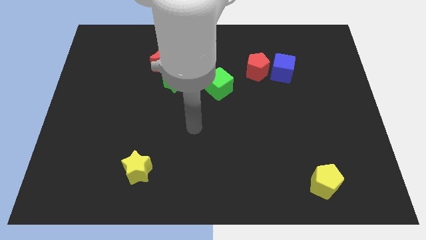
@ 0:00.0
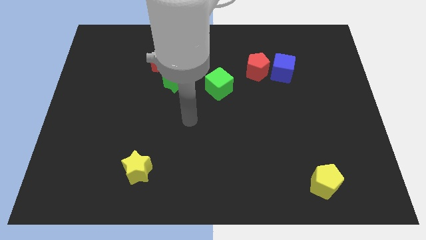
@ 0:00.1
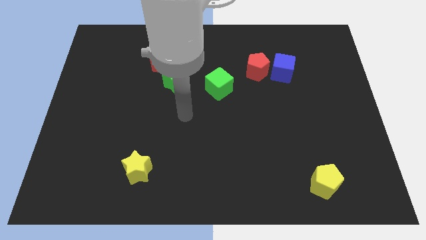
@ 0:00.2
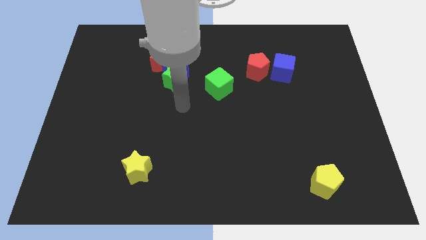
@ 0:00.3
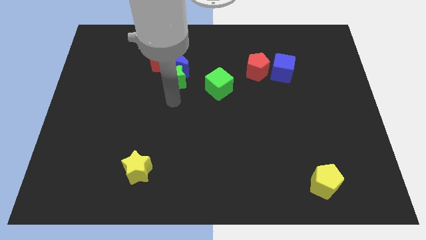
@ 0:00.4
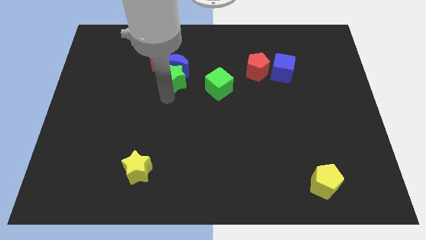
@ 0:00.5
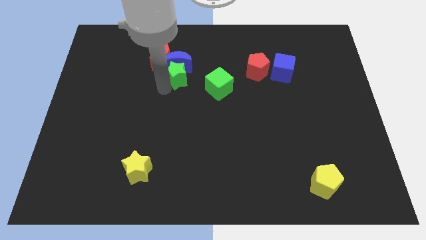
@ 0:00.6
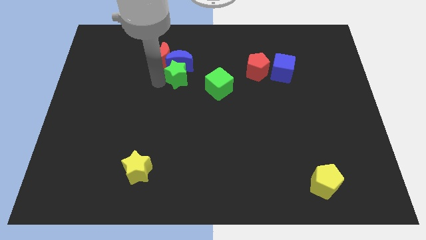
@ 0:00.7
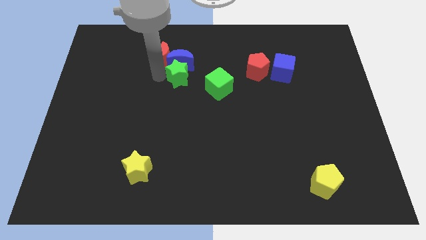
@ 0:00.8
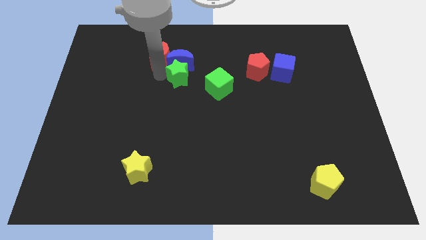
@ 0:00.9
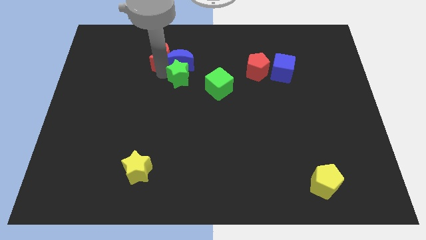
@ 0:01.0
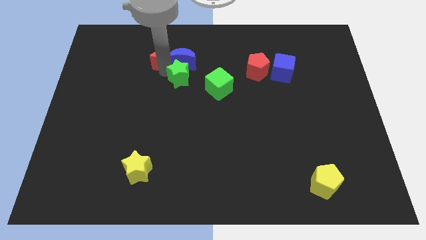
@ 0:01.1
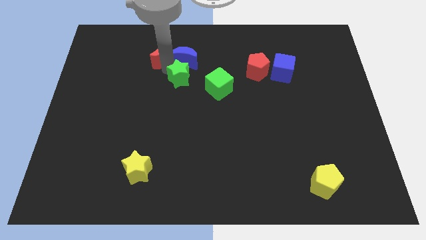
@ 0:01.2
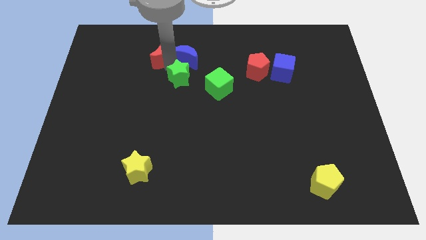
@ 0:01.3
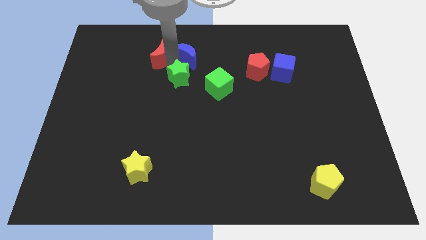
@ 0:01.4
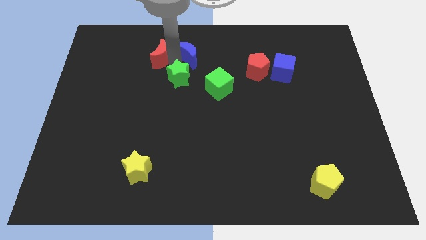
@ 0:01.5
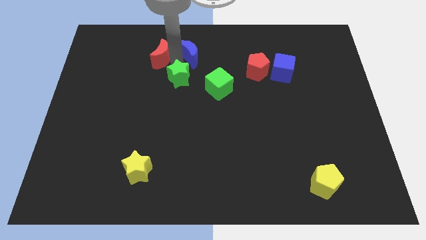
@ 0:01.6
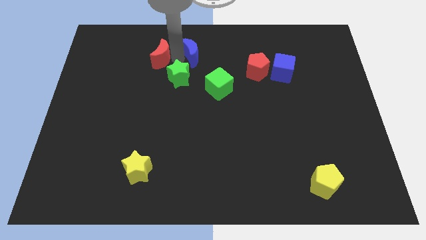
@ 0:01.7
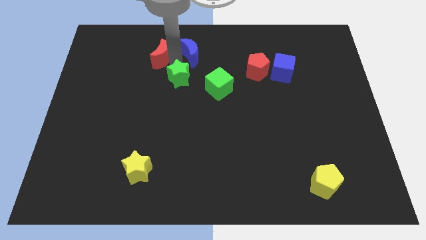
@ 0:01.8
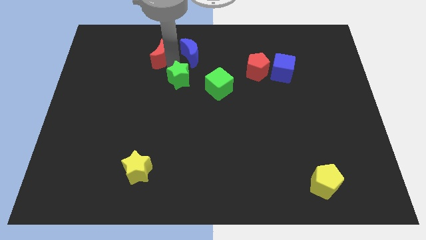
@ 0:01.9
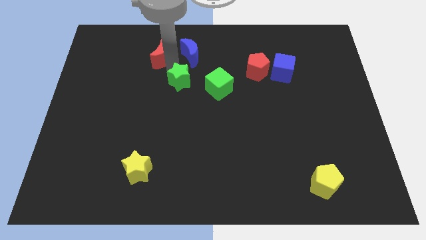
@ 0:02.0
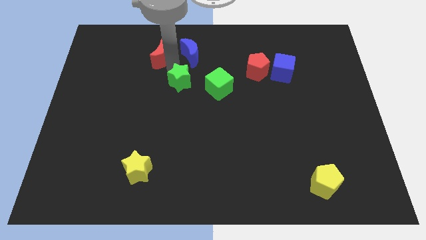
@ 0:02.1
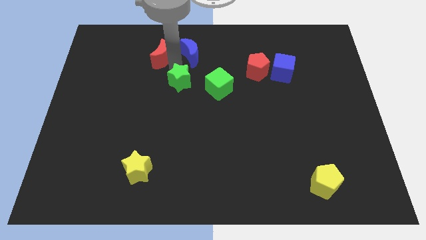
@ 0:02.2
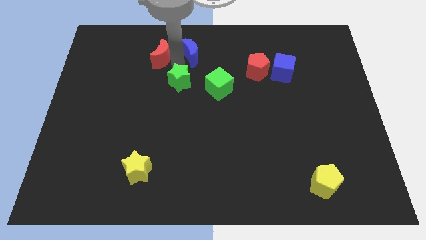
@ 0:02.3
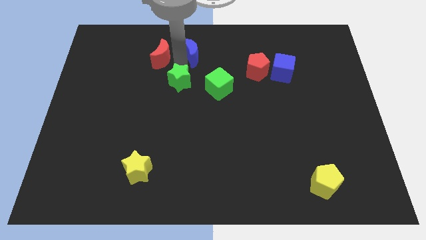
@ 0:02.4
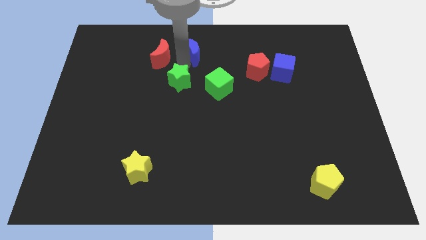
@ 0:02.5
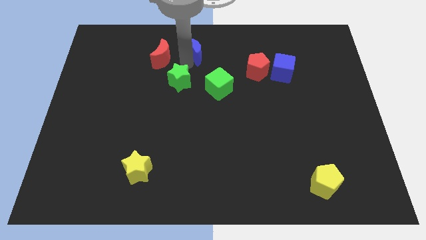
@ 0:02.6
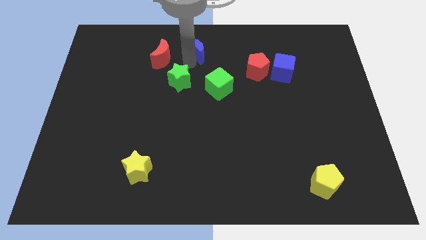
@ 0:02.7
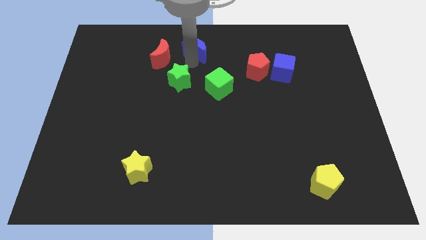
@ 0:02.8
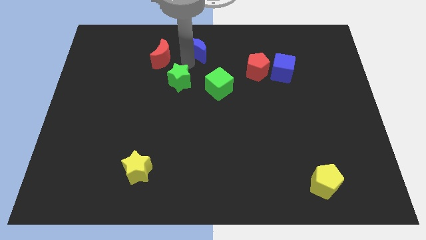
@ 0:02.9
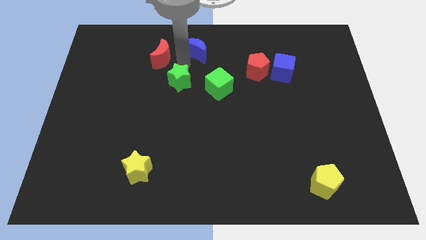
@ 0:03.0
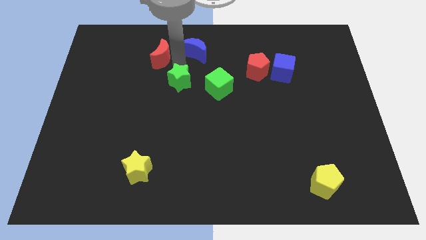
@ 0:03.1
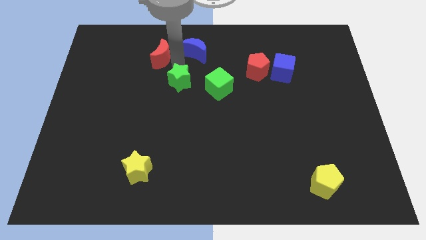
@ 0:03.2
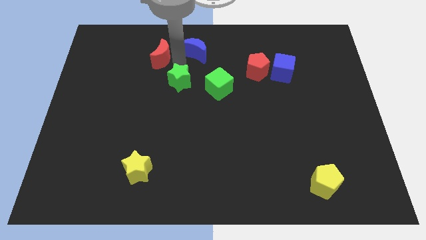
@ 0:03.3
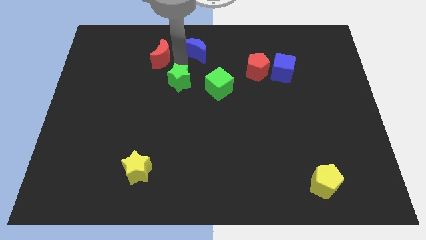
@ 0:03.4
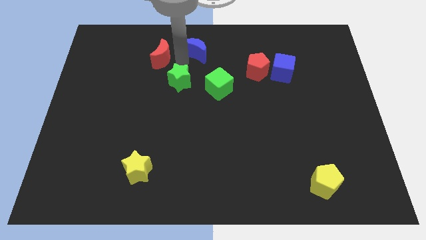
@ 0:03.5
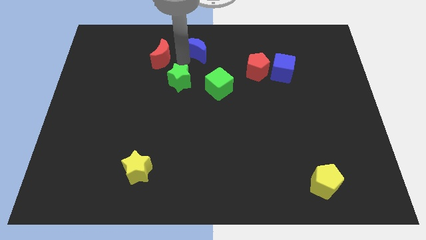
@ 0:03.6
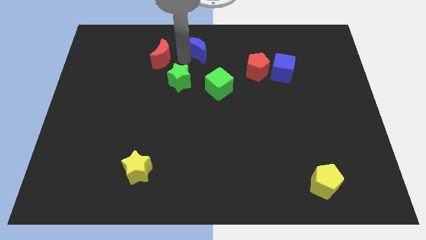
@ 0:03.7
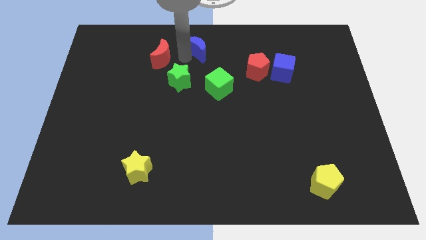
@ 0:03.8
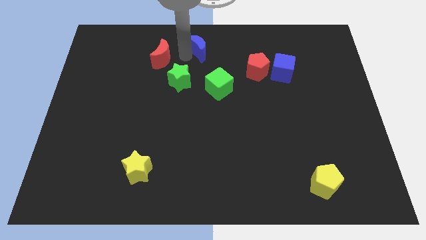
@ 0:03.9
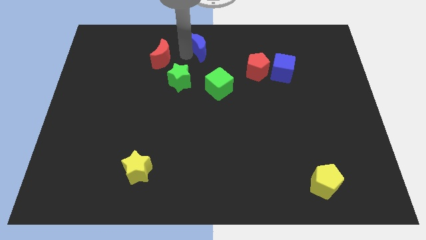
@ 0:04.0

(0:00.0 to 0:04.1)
separate the blue moon from the green star and red moon

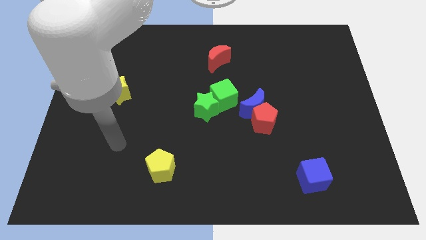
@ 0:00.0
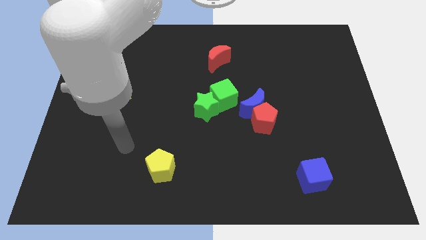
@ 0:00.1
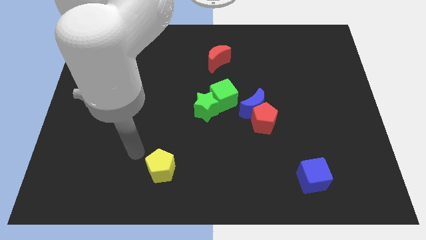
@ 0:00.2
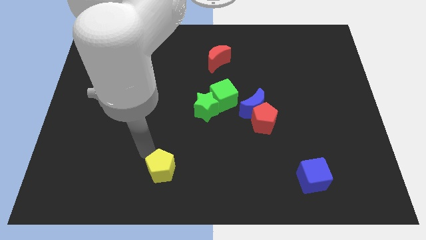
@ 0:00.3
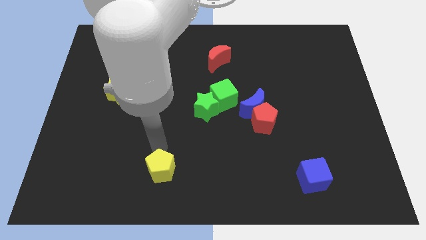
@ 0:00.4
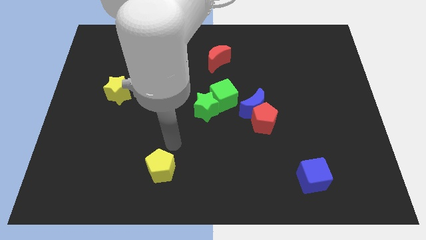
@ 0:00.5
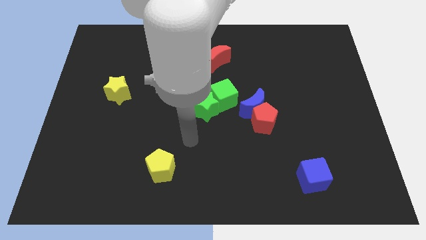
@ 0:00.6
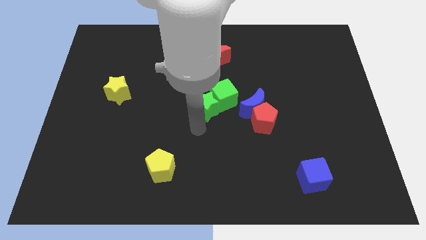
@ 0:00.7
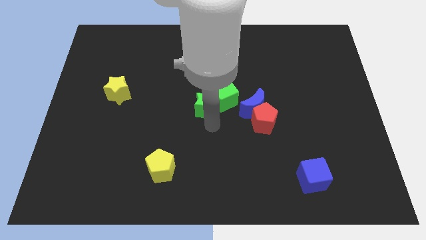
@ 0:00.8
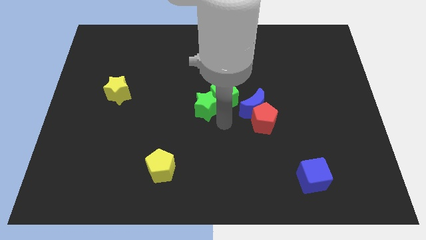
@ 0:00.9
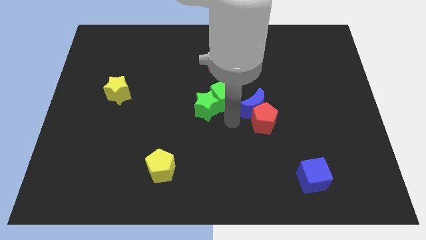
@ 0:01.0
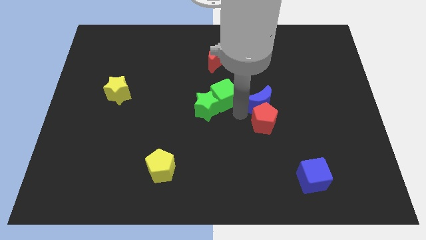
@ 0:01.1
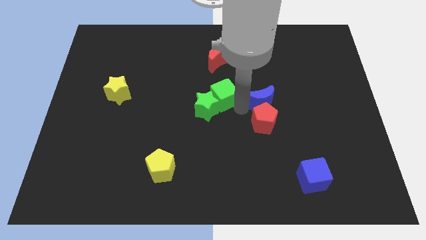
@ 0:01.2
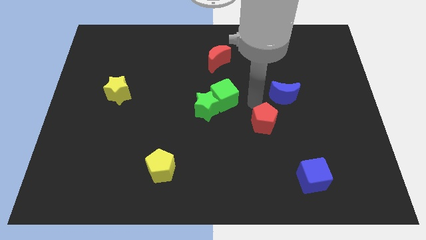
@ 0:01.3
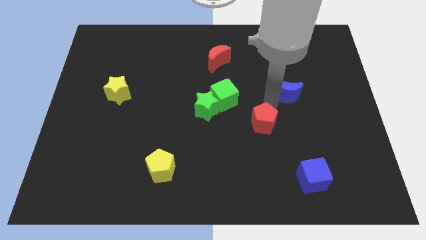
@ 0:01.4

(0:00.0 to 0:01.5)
pull the red pentagon apart from the blue moon

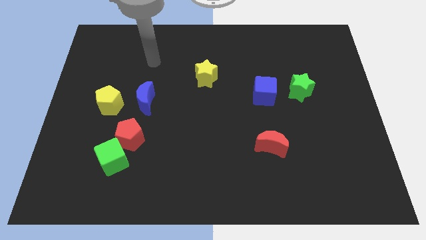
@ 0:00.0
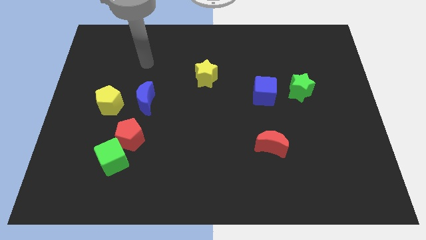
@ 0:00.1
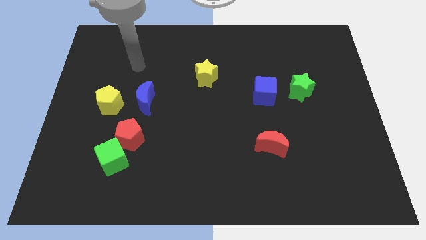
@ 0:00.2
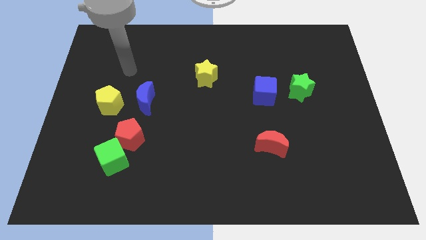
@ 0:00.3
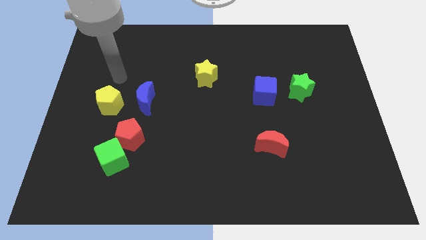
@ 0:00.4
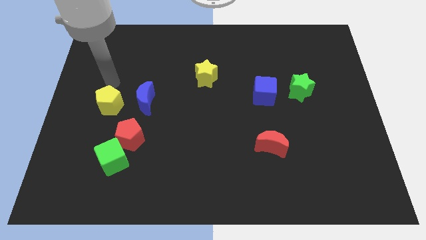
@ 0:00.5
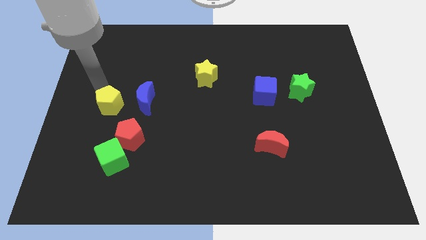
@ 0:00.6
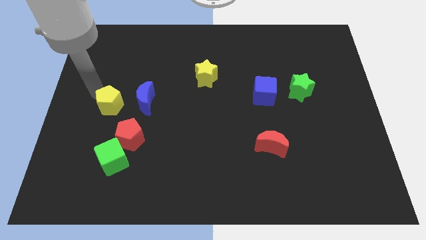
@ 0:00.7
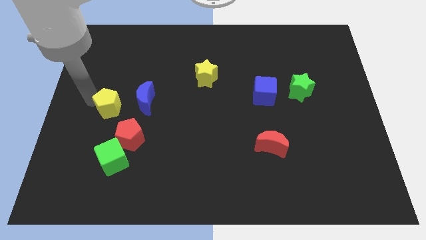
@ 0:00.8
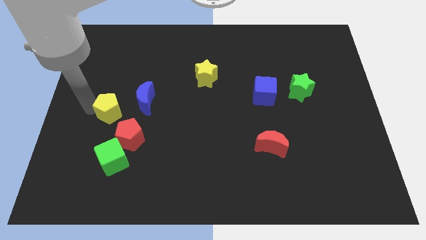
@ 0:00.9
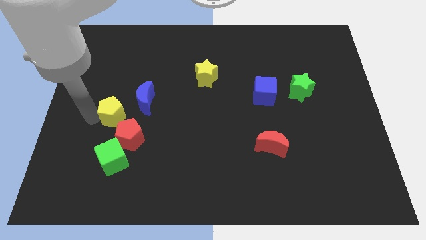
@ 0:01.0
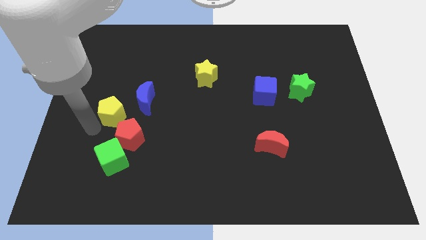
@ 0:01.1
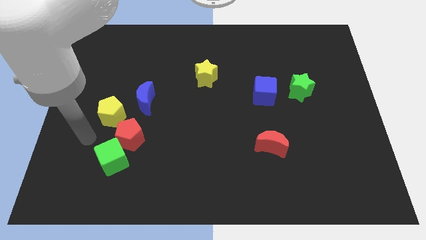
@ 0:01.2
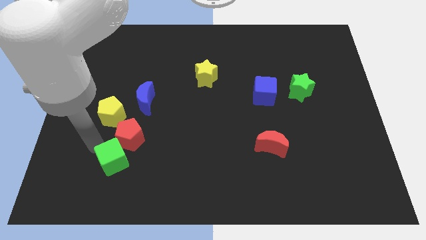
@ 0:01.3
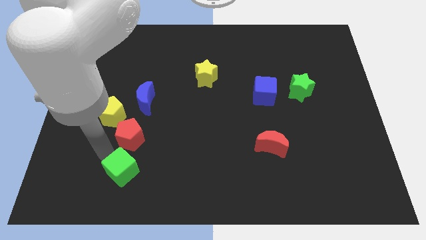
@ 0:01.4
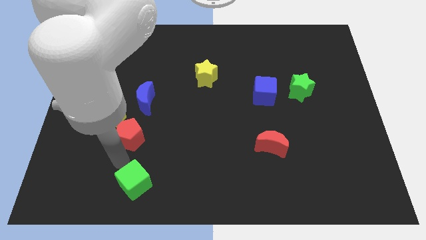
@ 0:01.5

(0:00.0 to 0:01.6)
pull the red pentagon apart from the green cube

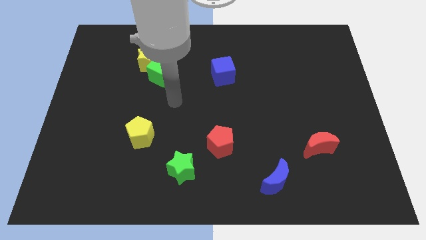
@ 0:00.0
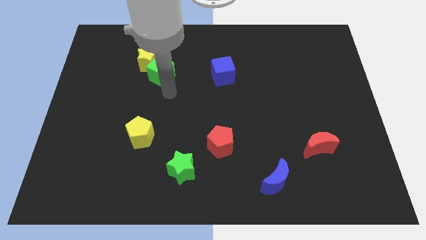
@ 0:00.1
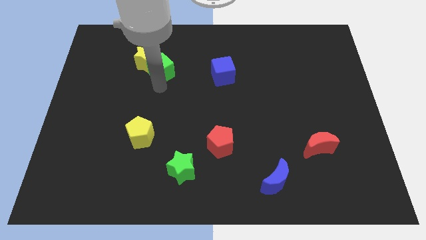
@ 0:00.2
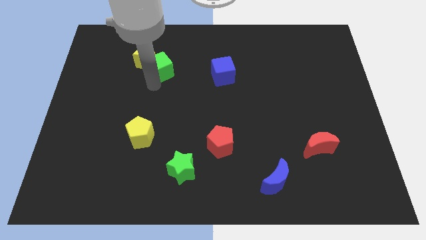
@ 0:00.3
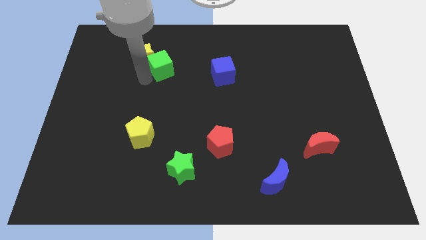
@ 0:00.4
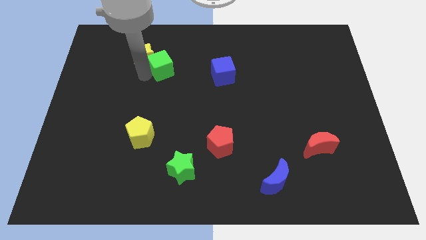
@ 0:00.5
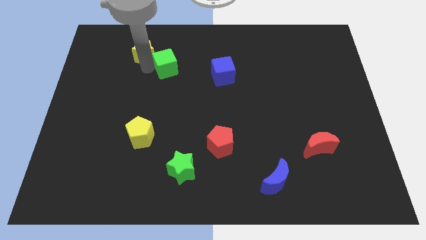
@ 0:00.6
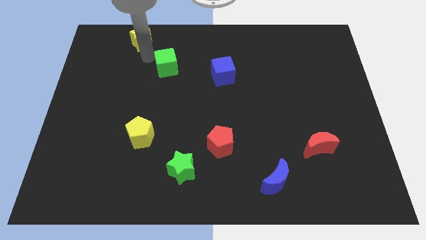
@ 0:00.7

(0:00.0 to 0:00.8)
pull the green cube apart from the yellow star

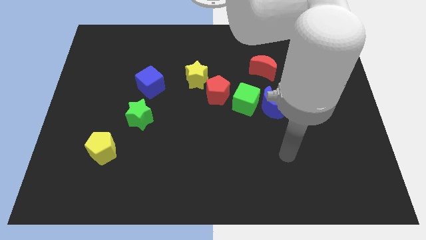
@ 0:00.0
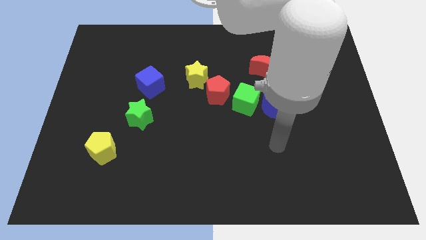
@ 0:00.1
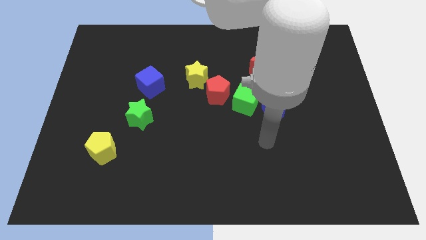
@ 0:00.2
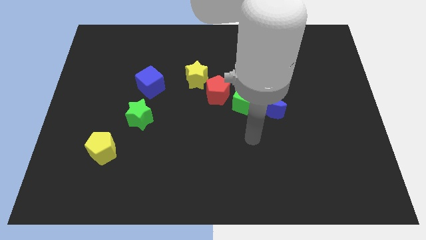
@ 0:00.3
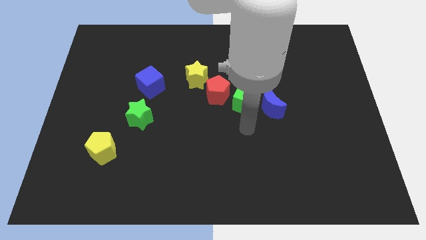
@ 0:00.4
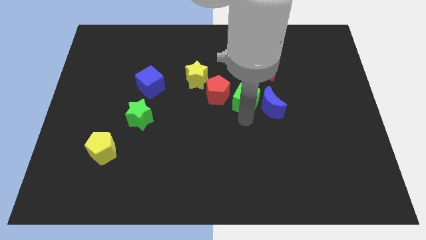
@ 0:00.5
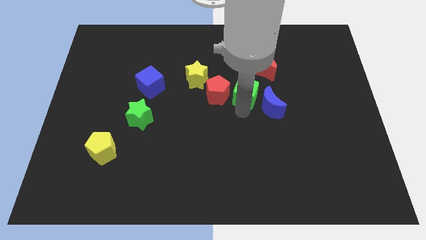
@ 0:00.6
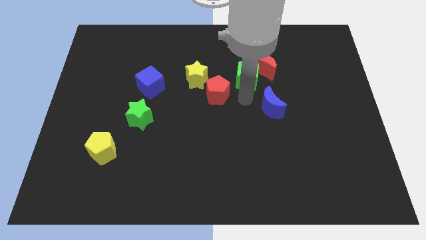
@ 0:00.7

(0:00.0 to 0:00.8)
separate the blue moon from the green cube

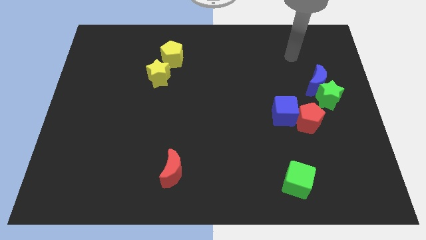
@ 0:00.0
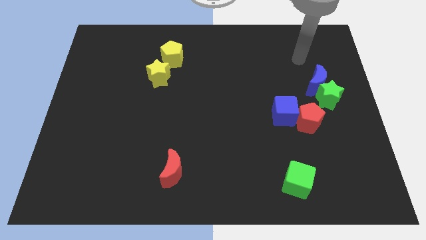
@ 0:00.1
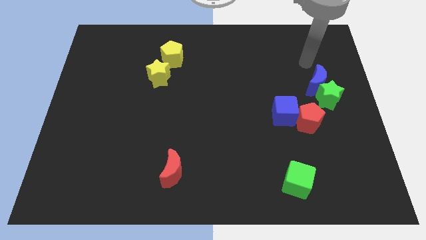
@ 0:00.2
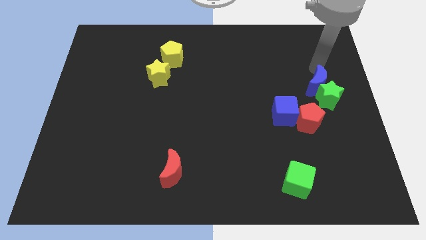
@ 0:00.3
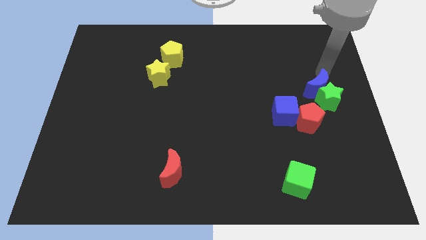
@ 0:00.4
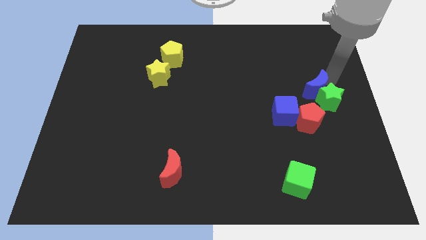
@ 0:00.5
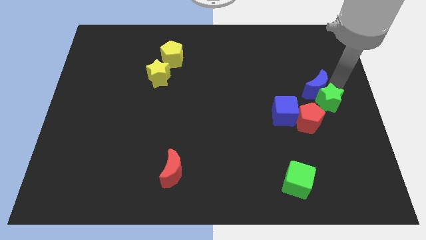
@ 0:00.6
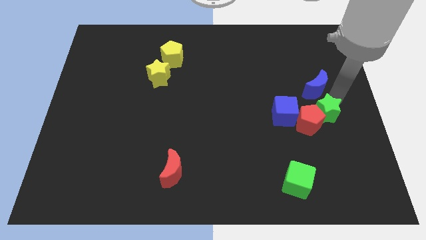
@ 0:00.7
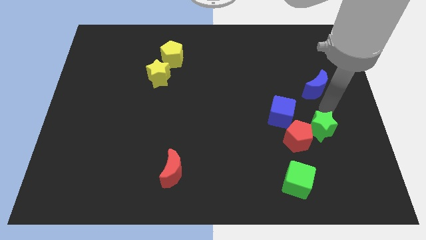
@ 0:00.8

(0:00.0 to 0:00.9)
move the blue moon away from the green star
